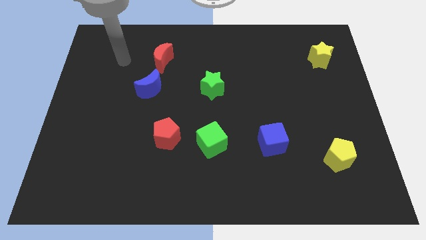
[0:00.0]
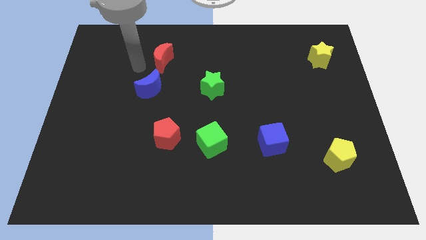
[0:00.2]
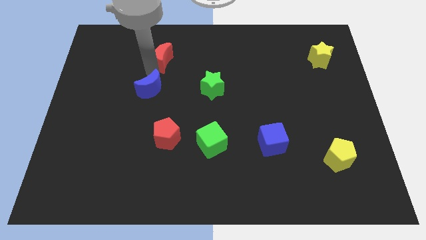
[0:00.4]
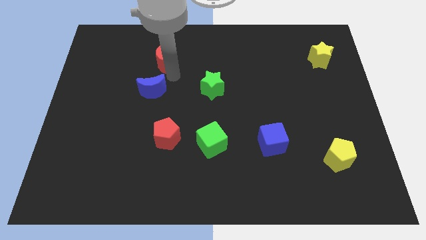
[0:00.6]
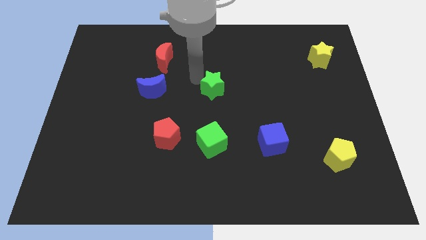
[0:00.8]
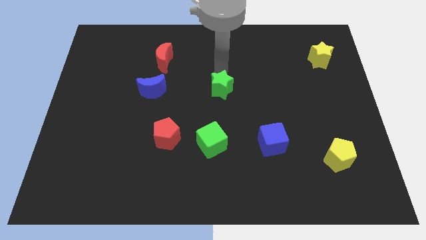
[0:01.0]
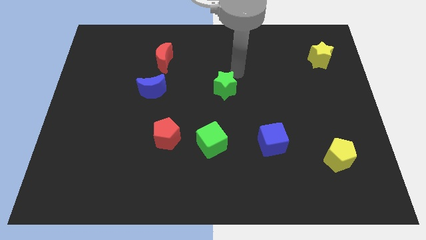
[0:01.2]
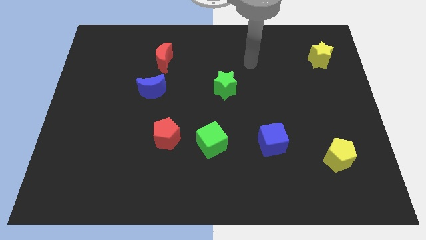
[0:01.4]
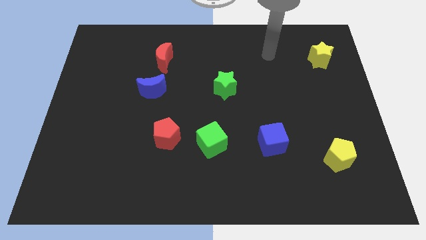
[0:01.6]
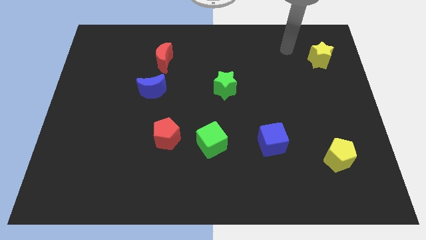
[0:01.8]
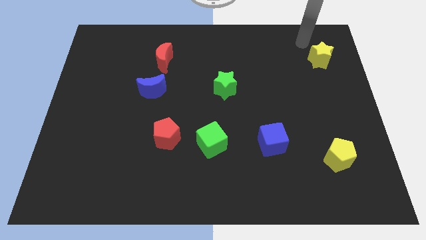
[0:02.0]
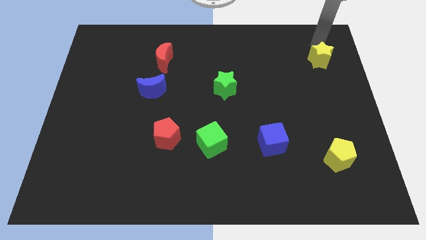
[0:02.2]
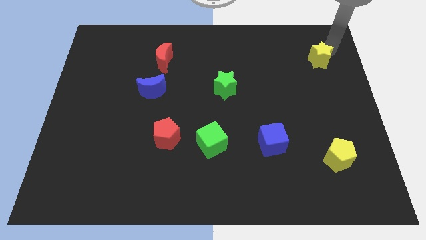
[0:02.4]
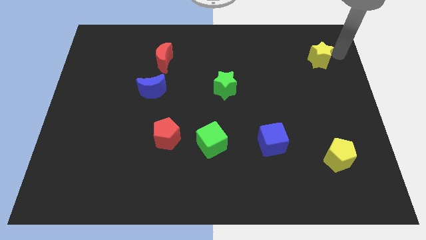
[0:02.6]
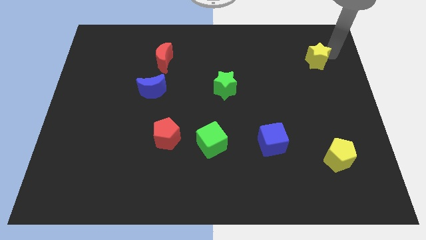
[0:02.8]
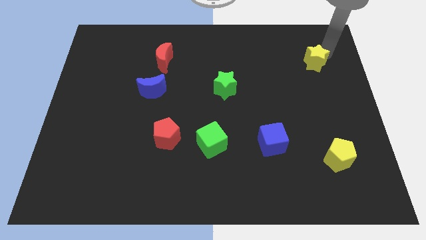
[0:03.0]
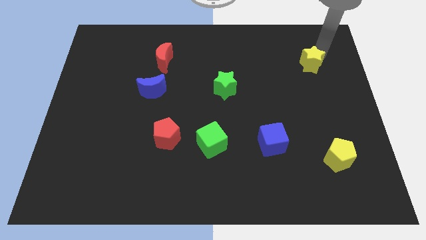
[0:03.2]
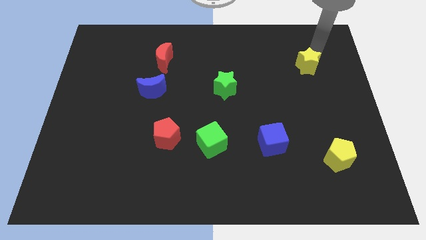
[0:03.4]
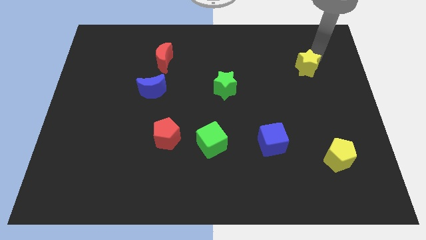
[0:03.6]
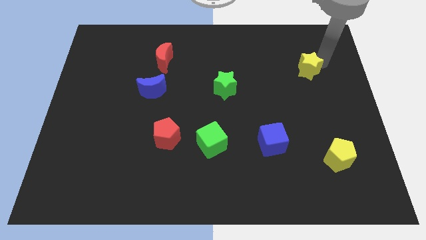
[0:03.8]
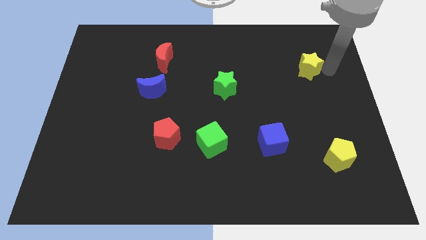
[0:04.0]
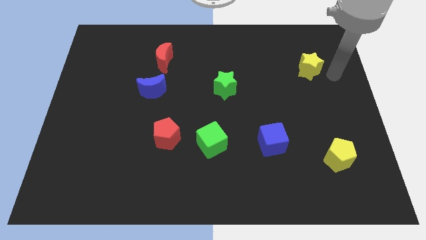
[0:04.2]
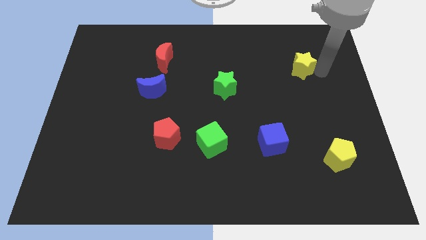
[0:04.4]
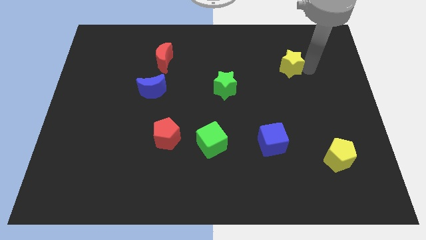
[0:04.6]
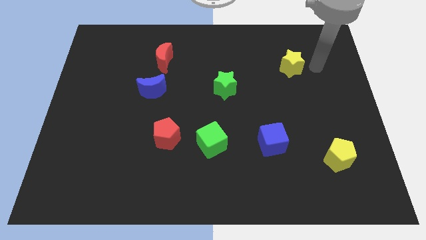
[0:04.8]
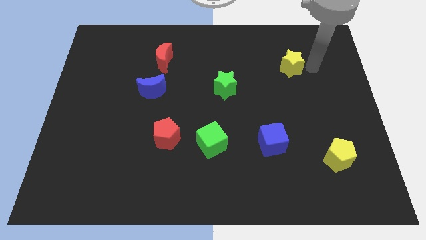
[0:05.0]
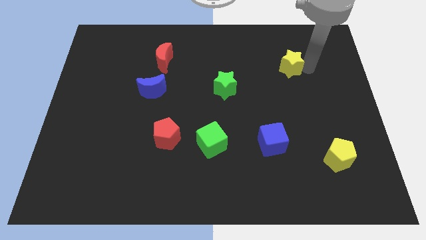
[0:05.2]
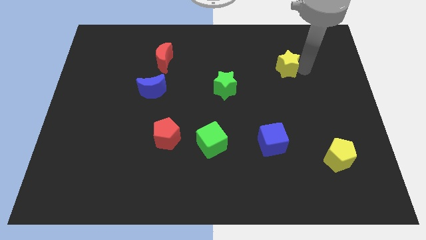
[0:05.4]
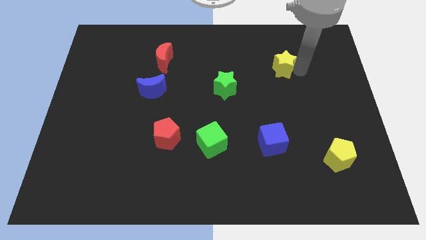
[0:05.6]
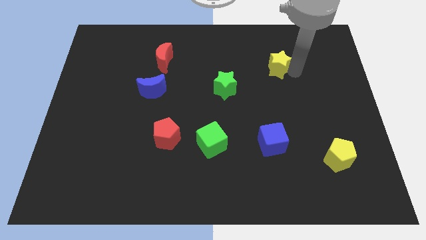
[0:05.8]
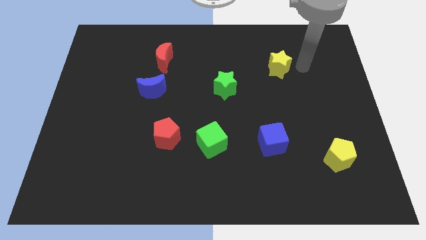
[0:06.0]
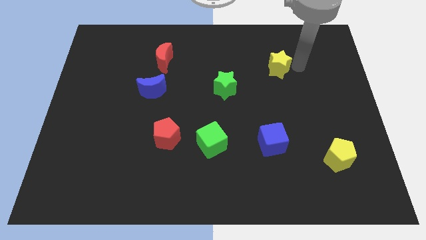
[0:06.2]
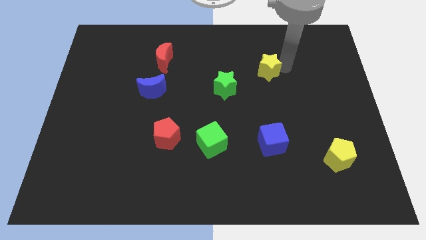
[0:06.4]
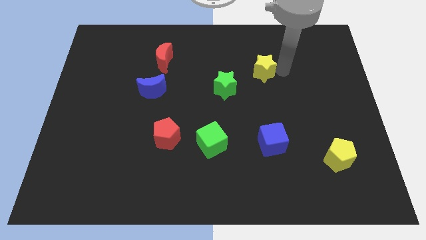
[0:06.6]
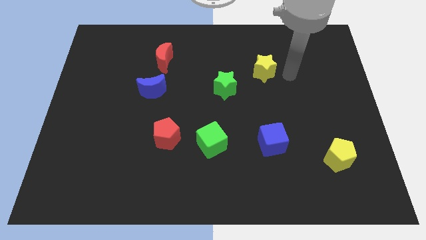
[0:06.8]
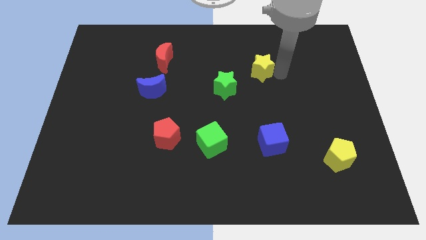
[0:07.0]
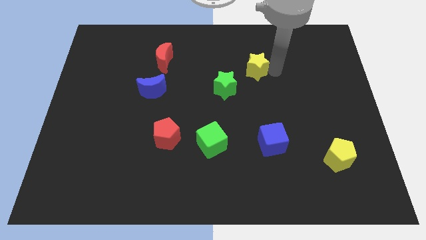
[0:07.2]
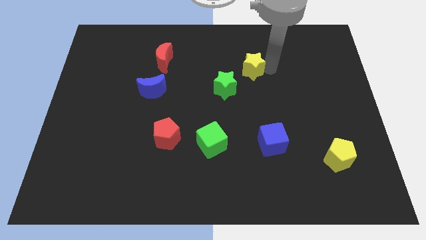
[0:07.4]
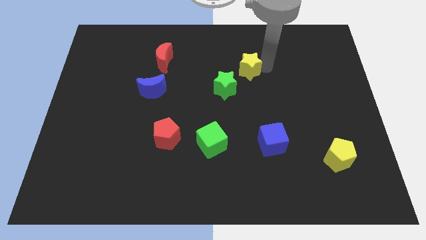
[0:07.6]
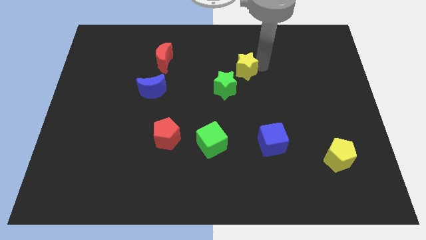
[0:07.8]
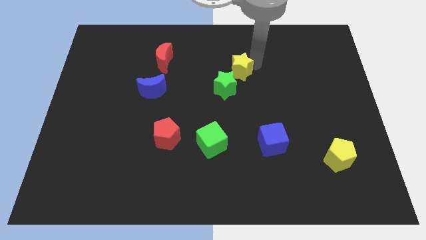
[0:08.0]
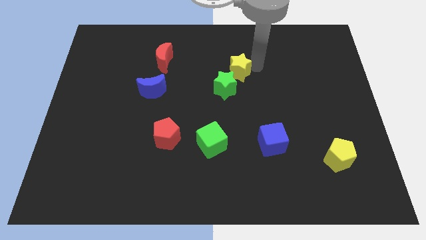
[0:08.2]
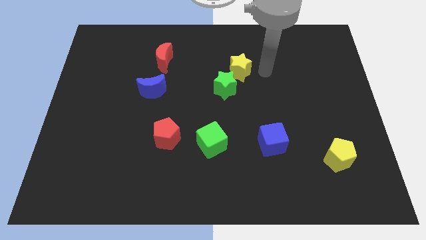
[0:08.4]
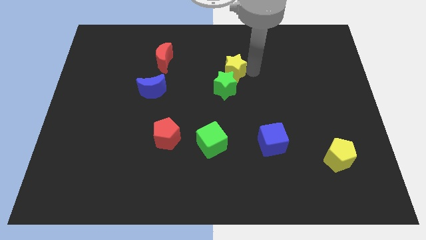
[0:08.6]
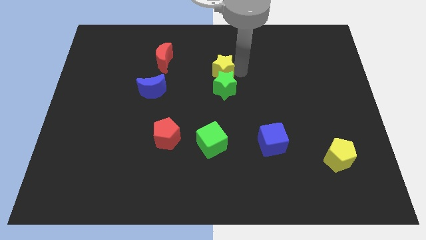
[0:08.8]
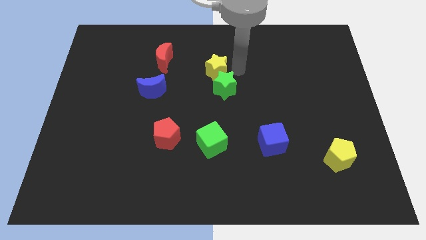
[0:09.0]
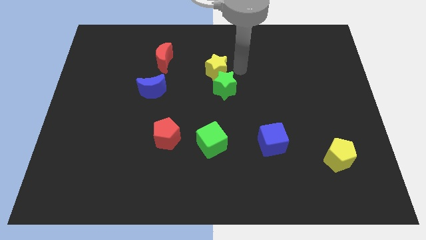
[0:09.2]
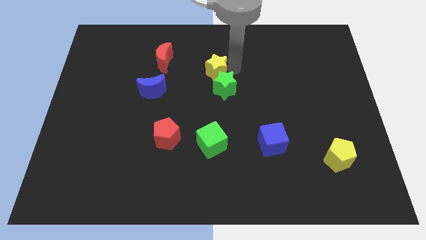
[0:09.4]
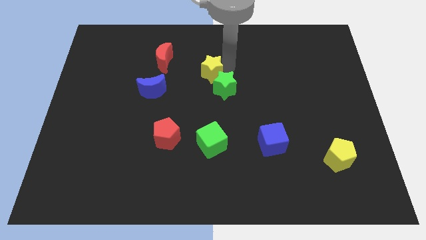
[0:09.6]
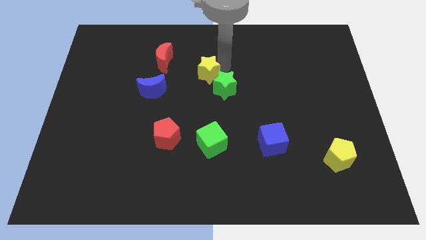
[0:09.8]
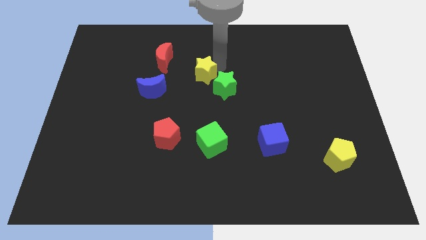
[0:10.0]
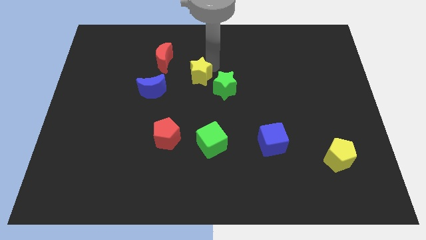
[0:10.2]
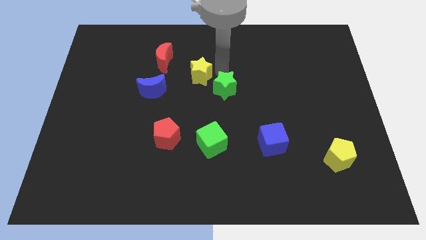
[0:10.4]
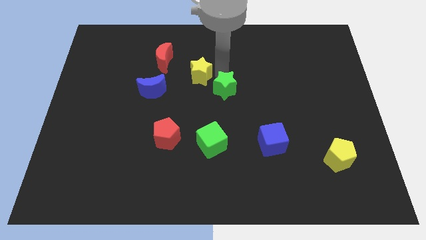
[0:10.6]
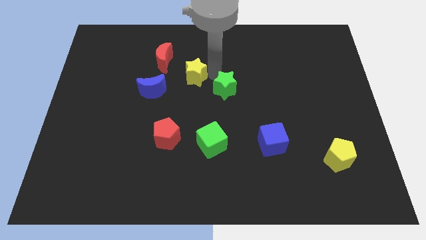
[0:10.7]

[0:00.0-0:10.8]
slide the yellow star diagonally up and to the right of the blue moon

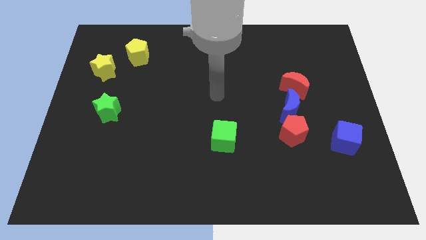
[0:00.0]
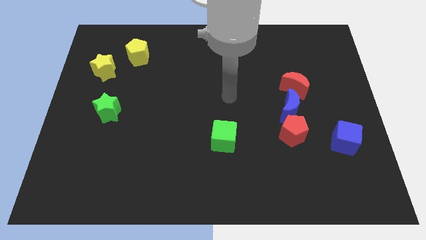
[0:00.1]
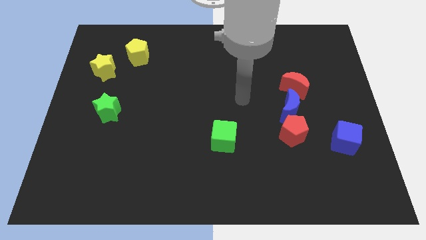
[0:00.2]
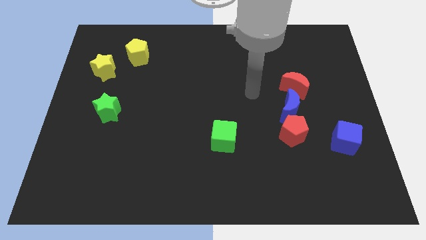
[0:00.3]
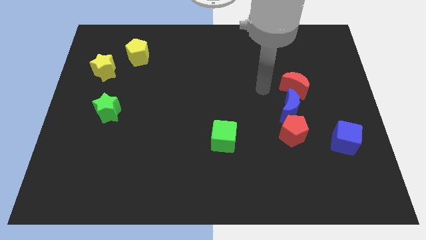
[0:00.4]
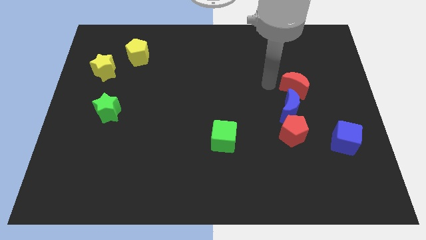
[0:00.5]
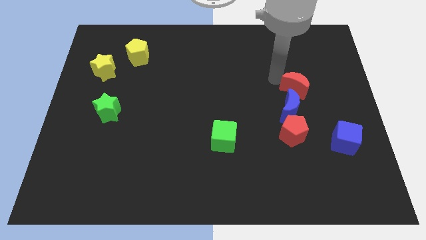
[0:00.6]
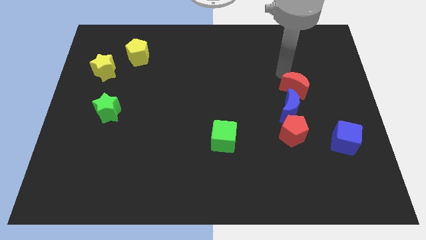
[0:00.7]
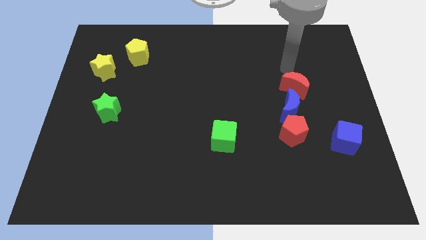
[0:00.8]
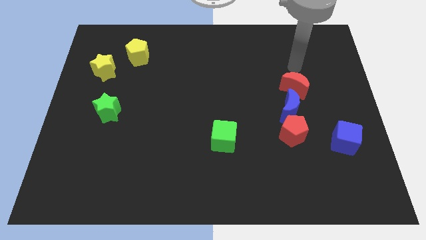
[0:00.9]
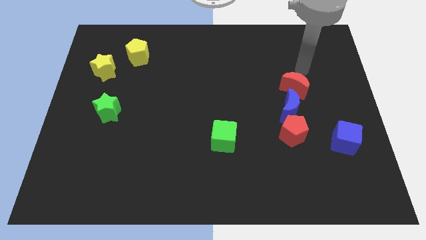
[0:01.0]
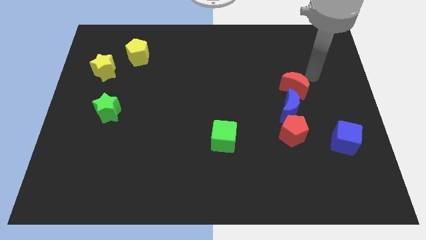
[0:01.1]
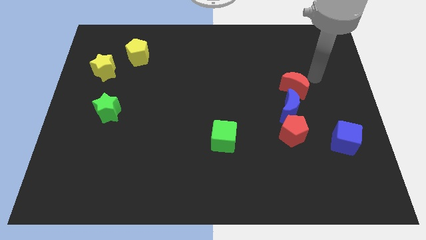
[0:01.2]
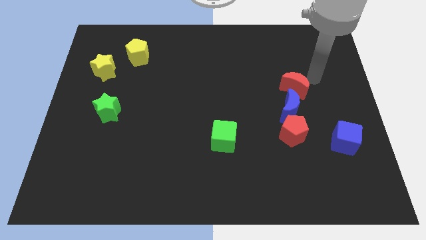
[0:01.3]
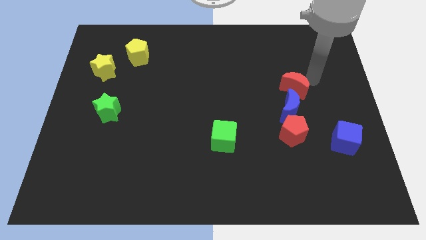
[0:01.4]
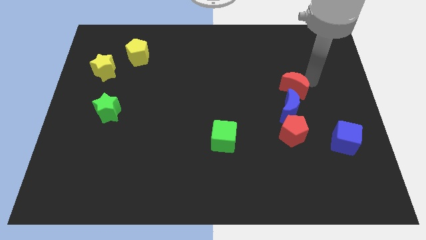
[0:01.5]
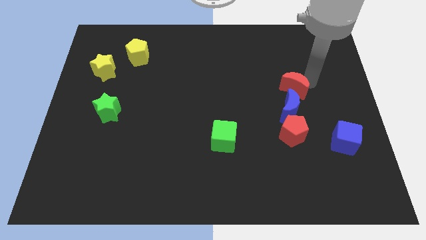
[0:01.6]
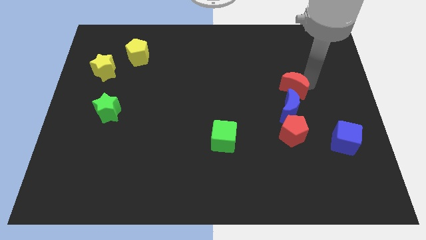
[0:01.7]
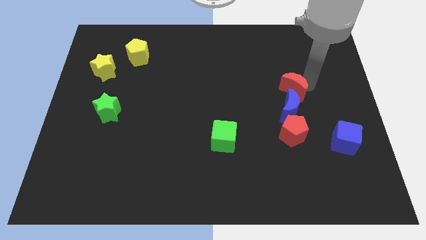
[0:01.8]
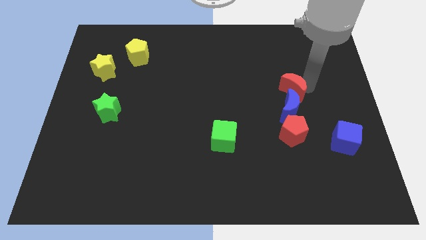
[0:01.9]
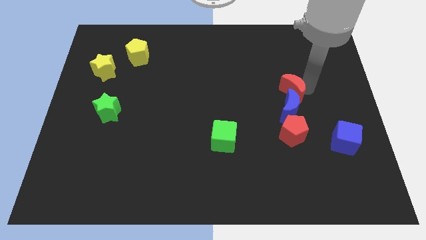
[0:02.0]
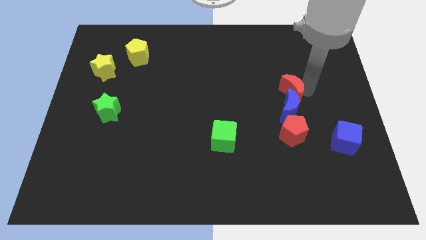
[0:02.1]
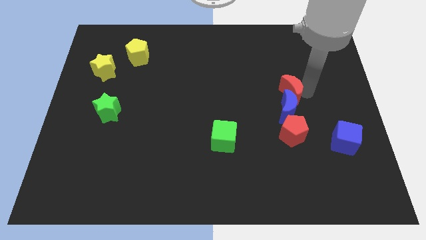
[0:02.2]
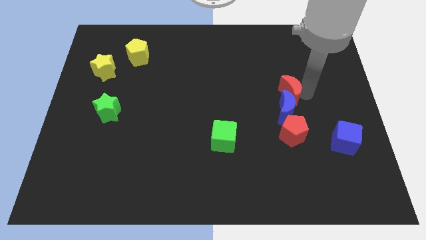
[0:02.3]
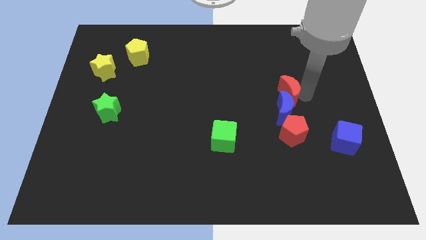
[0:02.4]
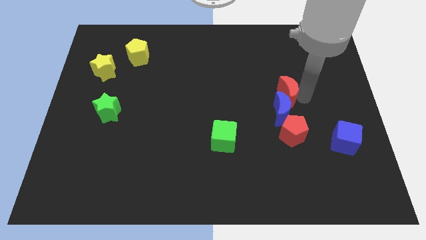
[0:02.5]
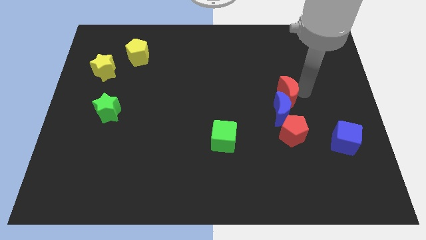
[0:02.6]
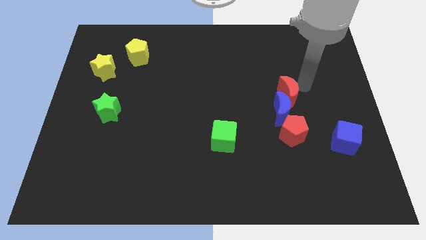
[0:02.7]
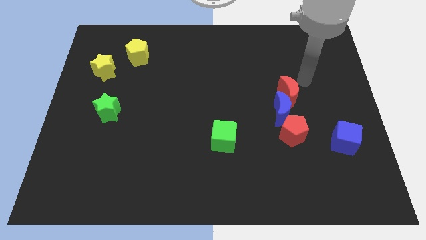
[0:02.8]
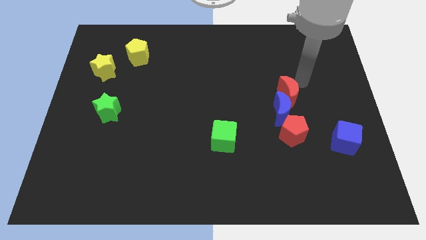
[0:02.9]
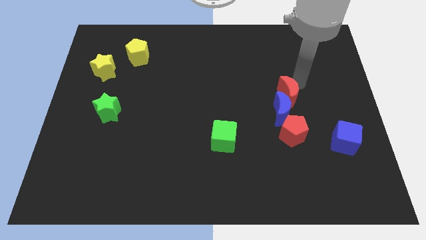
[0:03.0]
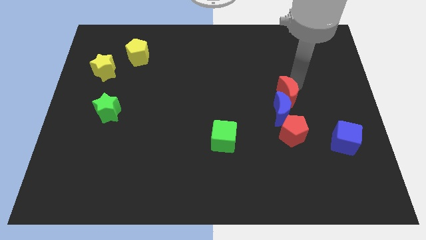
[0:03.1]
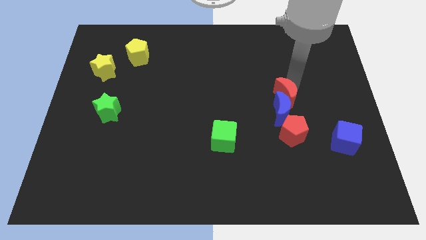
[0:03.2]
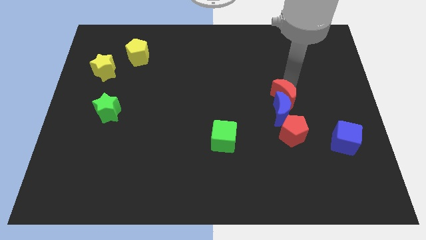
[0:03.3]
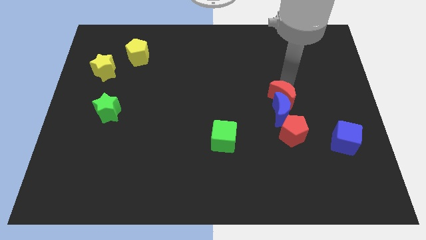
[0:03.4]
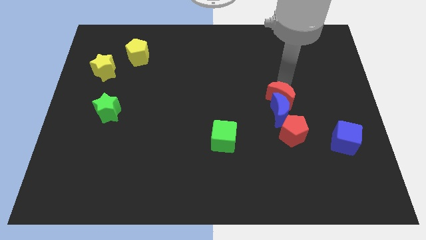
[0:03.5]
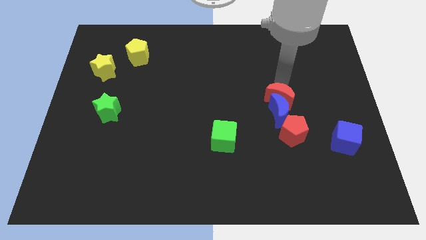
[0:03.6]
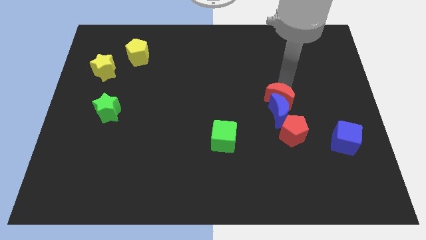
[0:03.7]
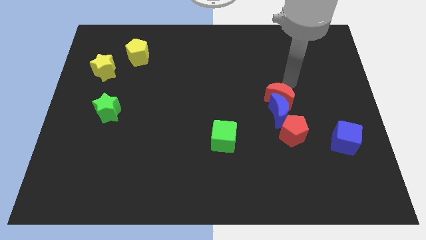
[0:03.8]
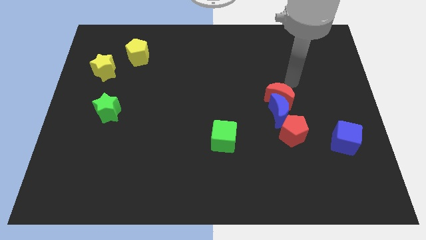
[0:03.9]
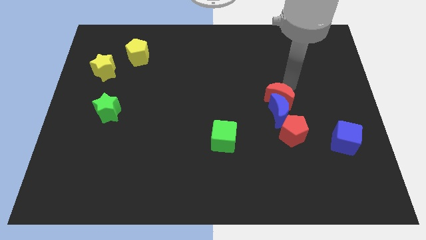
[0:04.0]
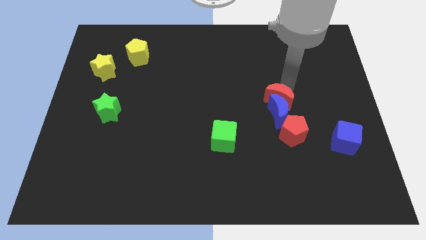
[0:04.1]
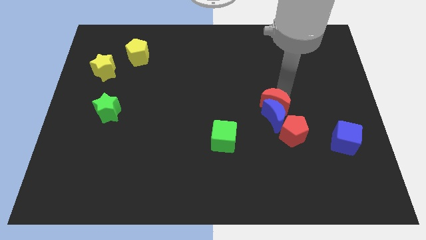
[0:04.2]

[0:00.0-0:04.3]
slide the red moon to the top left side of the red pentagon
